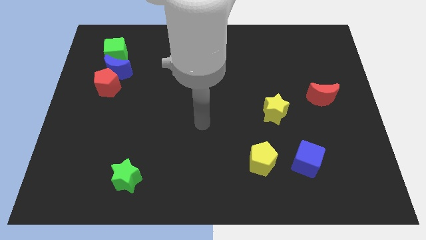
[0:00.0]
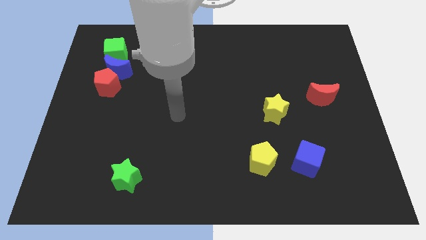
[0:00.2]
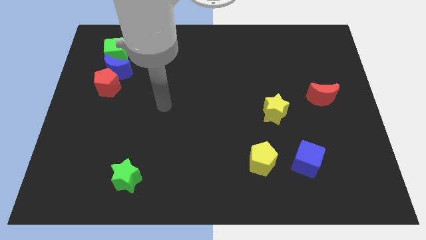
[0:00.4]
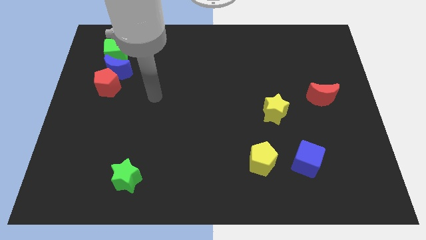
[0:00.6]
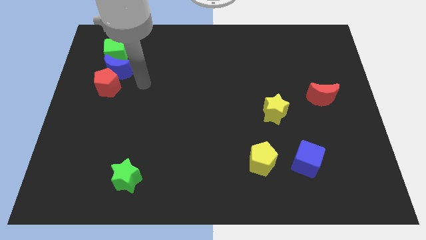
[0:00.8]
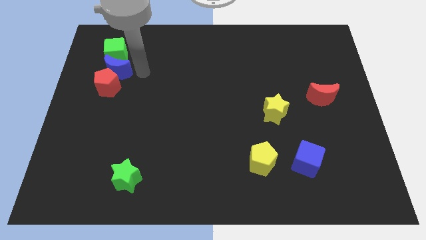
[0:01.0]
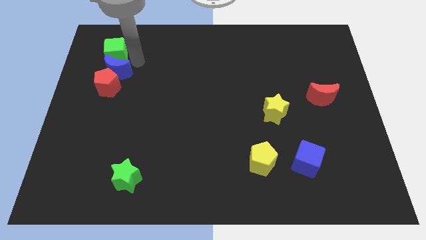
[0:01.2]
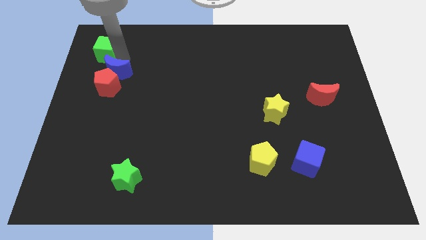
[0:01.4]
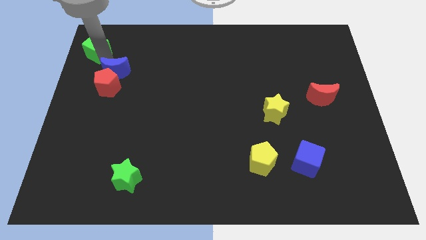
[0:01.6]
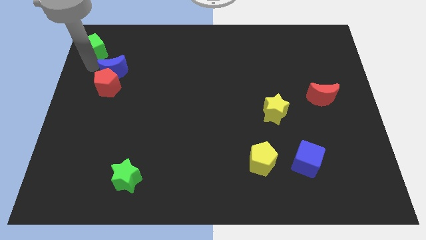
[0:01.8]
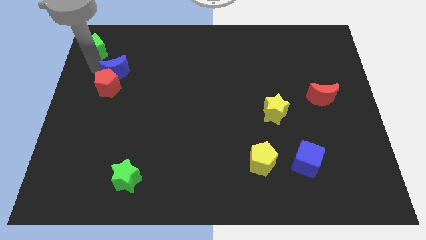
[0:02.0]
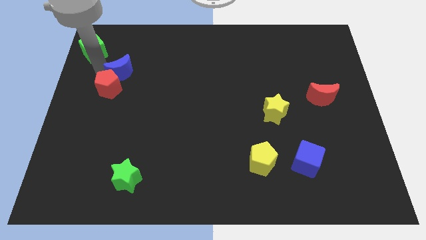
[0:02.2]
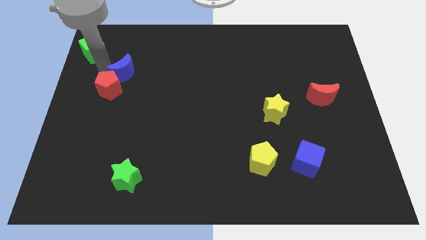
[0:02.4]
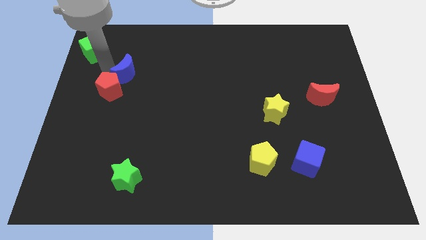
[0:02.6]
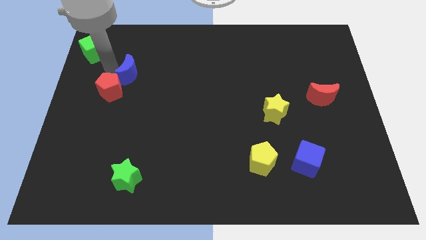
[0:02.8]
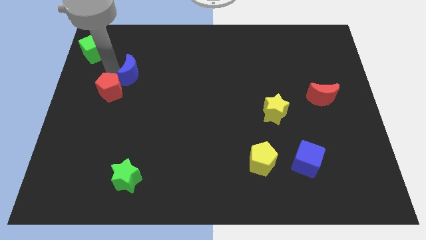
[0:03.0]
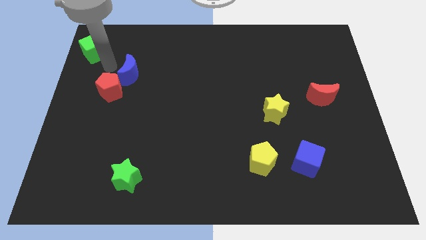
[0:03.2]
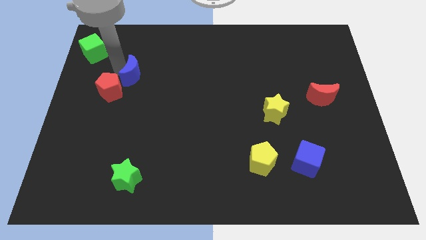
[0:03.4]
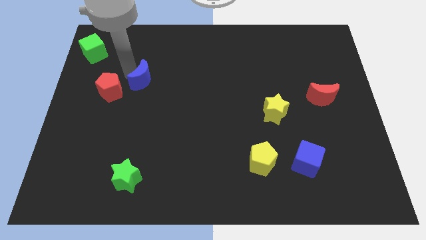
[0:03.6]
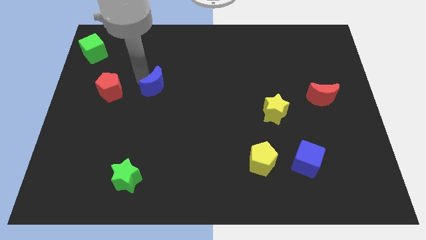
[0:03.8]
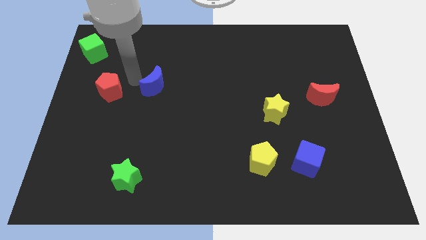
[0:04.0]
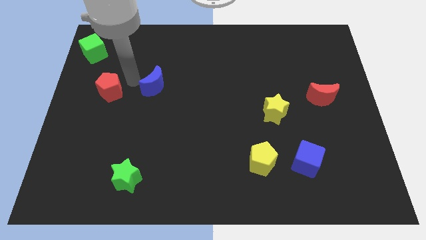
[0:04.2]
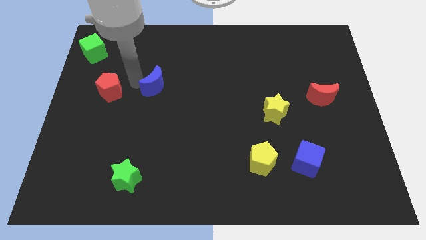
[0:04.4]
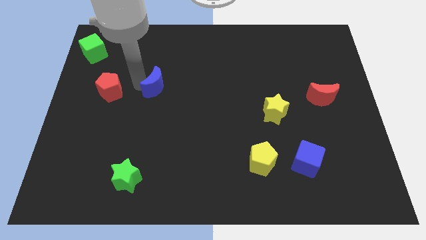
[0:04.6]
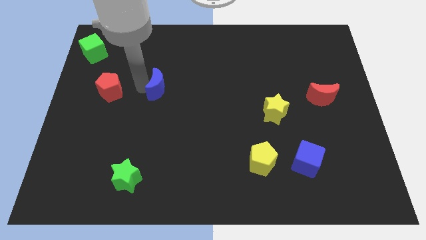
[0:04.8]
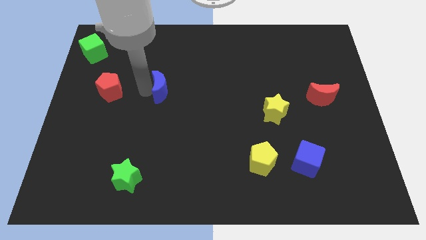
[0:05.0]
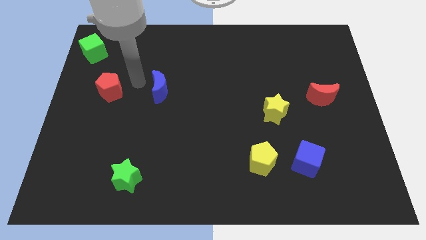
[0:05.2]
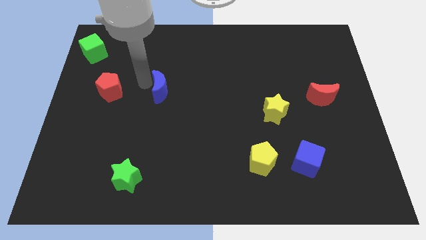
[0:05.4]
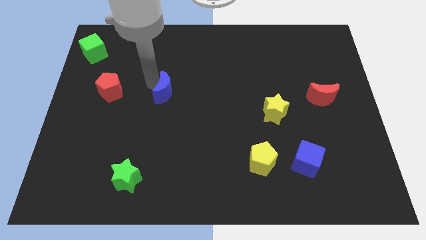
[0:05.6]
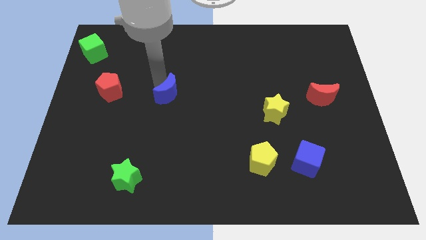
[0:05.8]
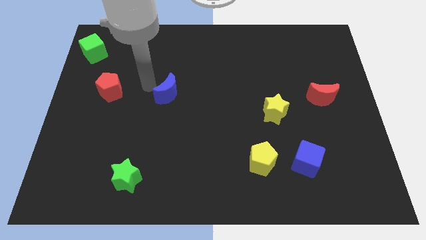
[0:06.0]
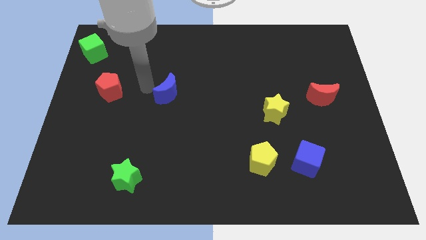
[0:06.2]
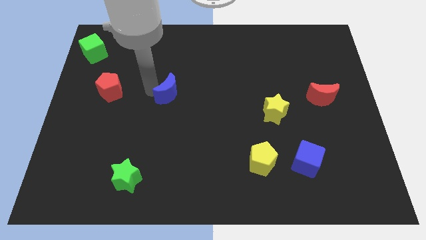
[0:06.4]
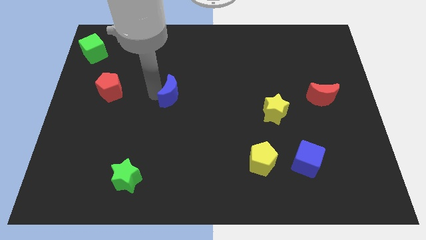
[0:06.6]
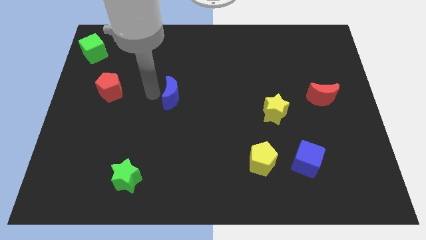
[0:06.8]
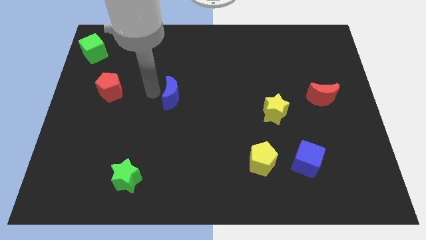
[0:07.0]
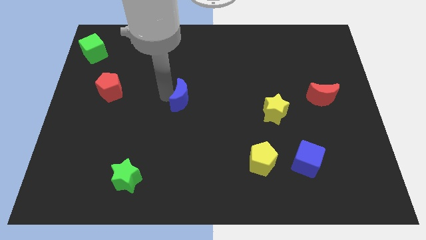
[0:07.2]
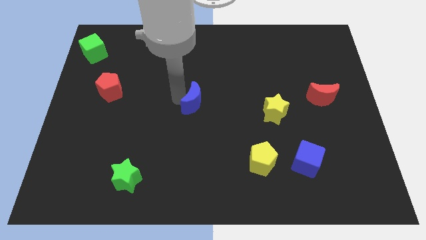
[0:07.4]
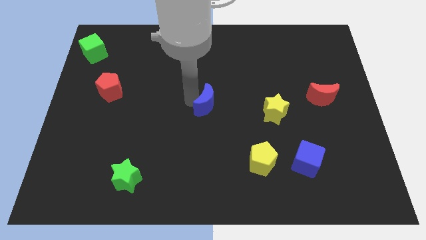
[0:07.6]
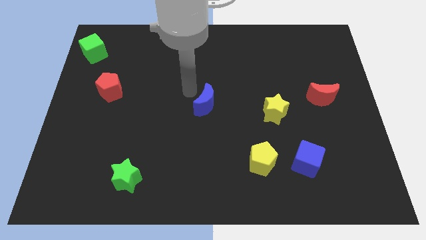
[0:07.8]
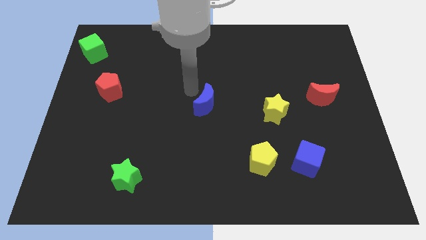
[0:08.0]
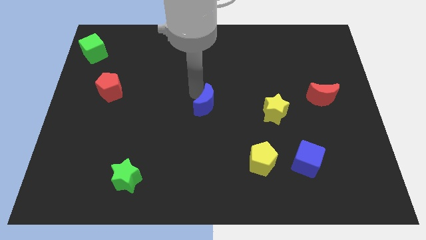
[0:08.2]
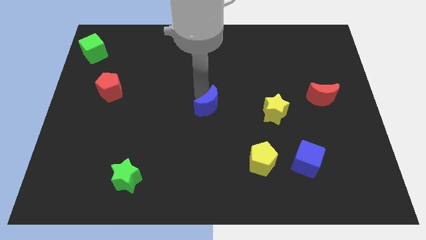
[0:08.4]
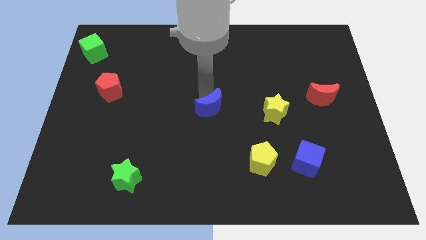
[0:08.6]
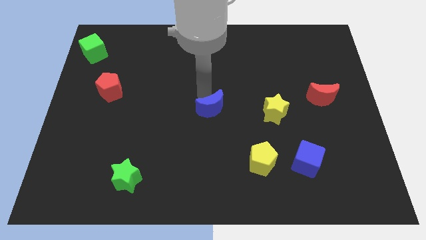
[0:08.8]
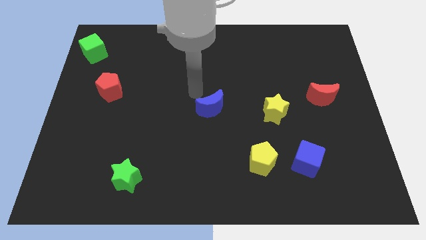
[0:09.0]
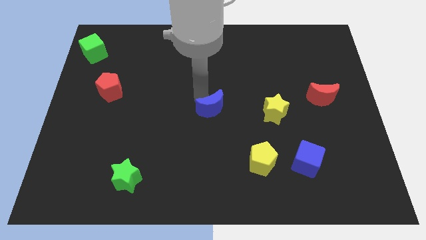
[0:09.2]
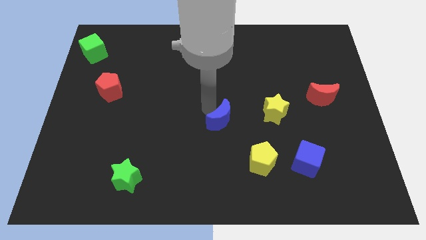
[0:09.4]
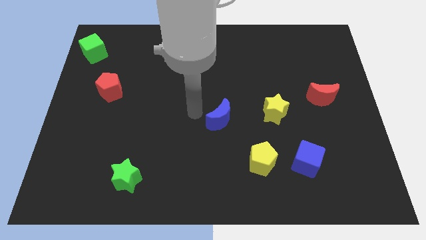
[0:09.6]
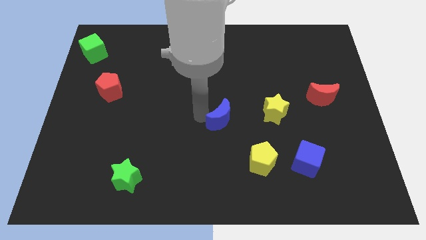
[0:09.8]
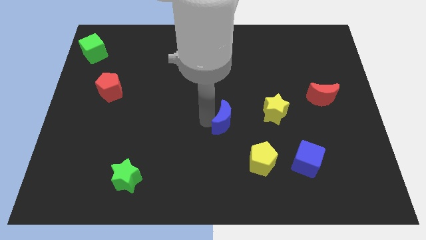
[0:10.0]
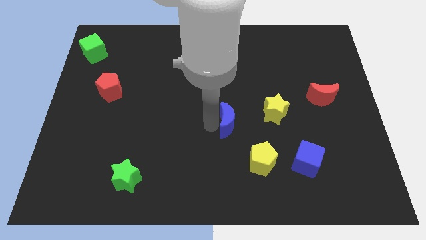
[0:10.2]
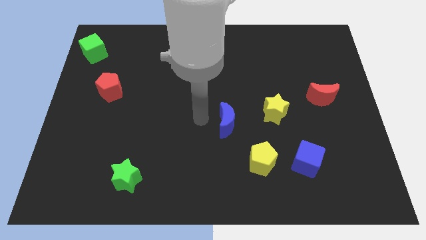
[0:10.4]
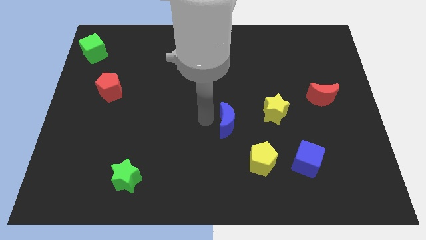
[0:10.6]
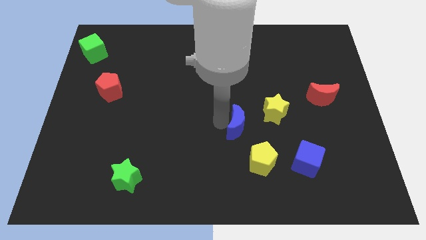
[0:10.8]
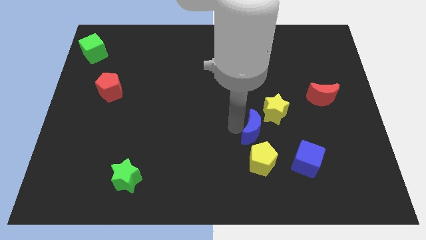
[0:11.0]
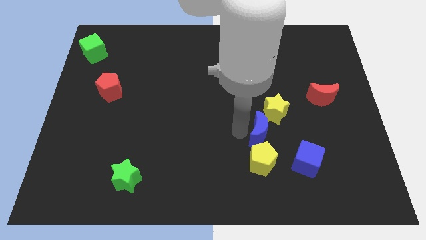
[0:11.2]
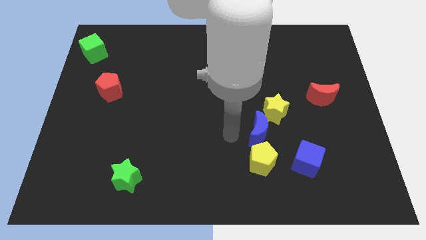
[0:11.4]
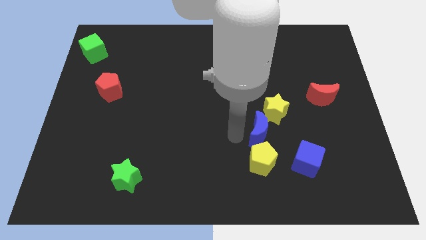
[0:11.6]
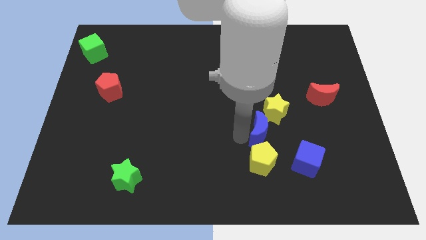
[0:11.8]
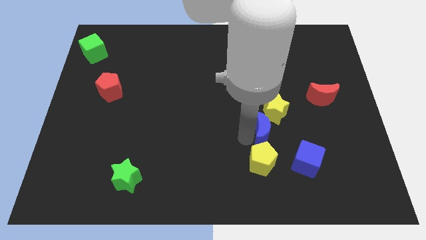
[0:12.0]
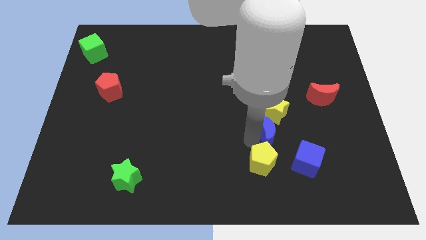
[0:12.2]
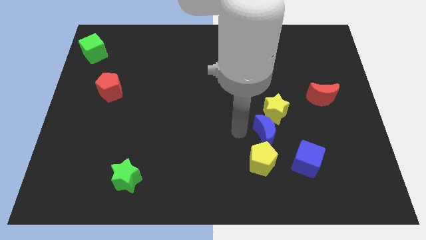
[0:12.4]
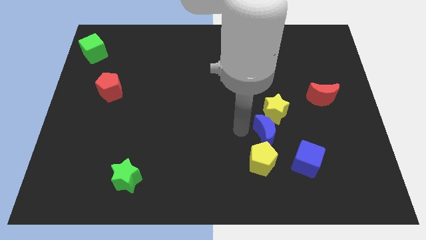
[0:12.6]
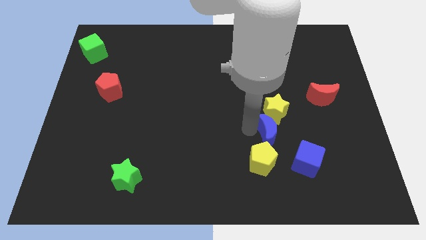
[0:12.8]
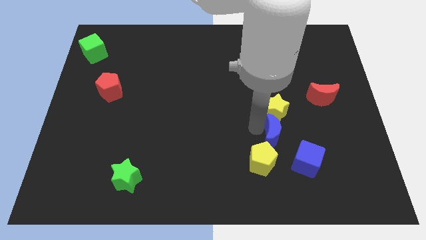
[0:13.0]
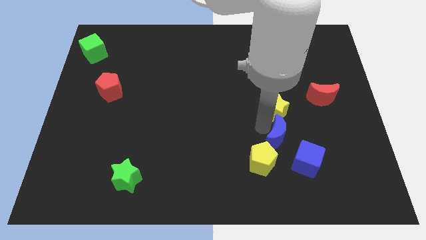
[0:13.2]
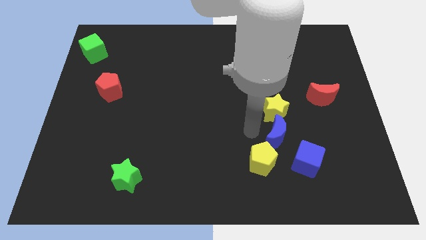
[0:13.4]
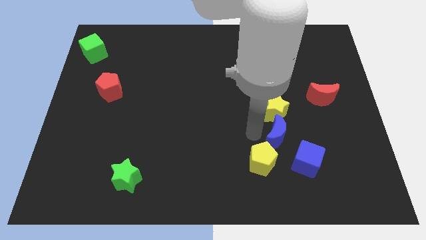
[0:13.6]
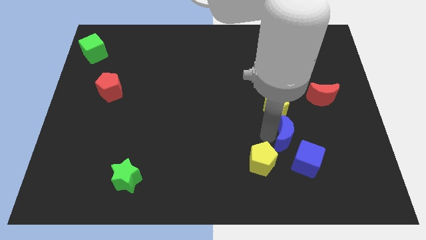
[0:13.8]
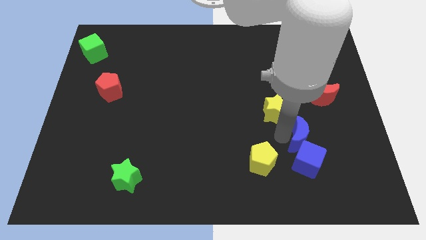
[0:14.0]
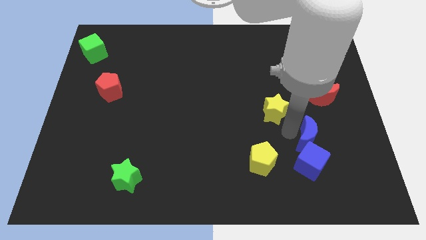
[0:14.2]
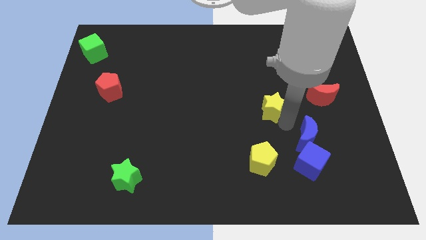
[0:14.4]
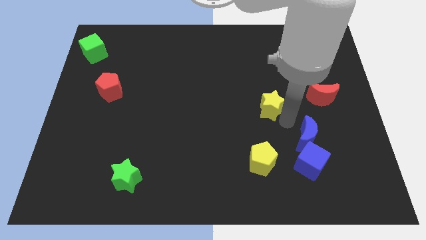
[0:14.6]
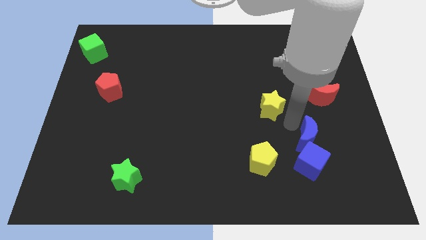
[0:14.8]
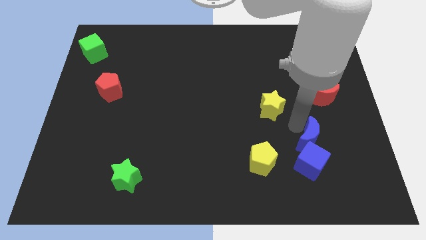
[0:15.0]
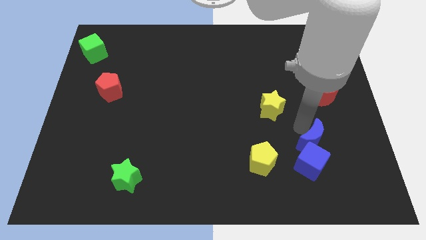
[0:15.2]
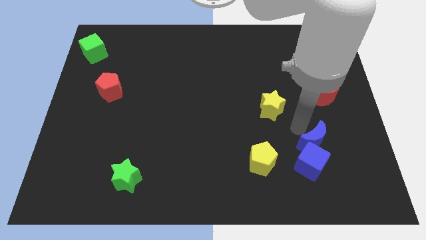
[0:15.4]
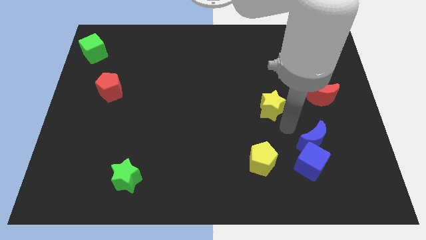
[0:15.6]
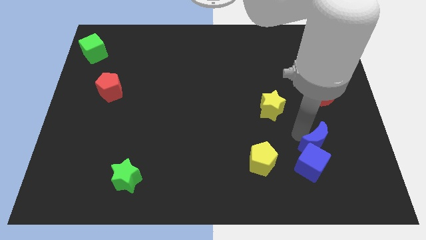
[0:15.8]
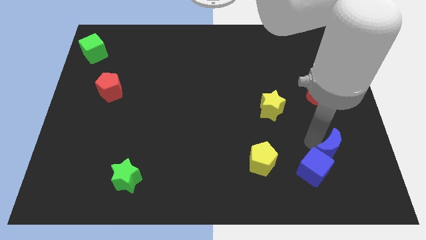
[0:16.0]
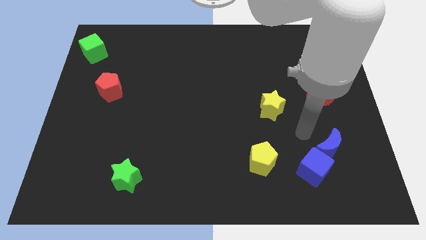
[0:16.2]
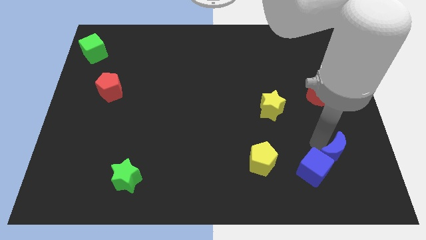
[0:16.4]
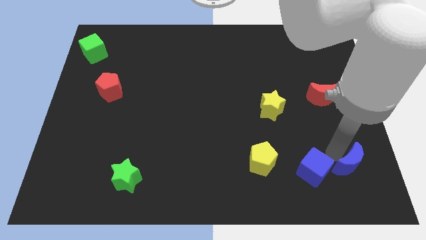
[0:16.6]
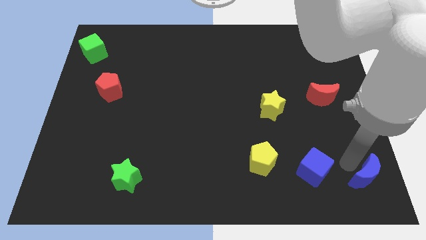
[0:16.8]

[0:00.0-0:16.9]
push the blue moon to the bottom right
